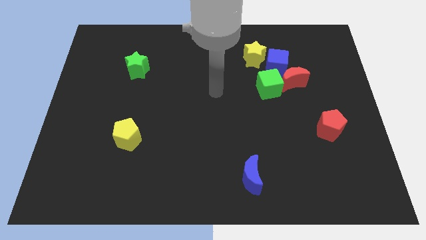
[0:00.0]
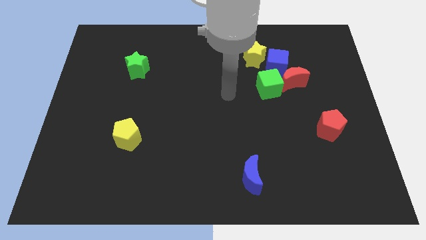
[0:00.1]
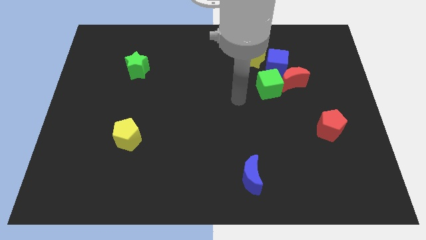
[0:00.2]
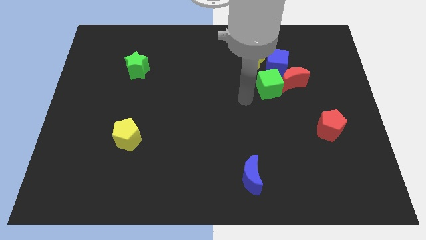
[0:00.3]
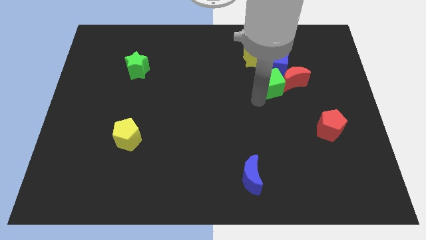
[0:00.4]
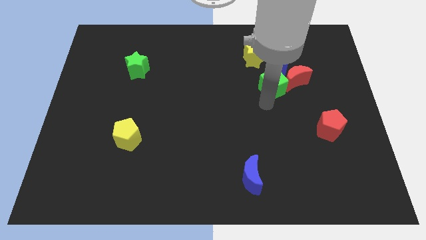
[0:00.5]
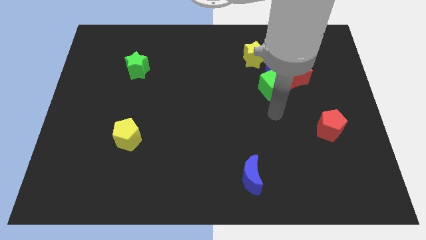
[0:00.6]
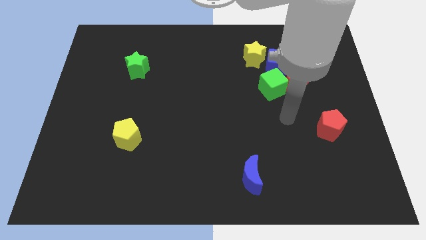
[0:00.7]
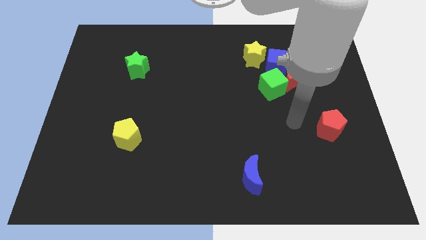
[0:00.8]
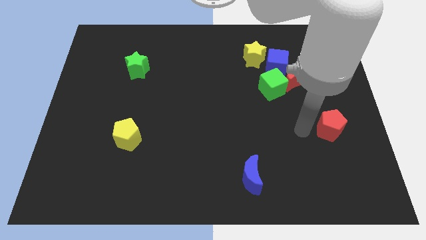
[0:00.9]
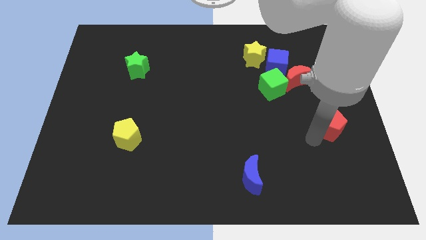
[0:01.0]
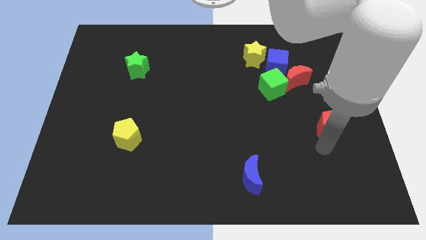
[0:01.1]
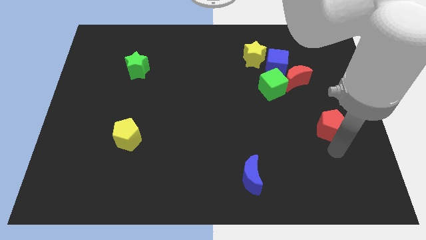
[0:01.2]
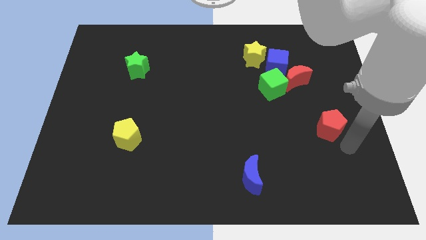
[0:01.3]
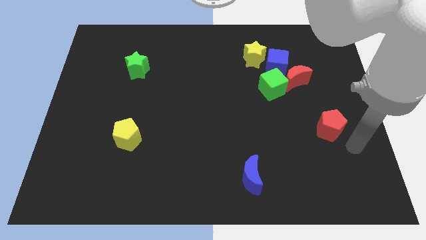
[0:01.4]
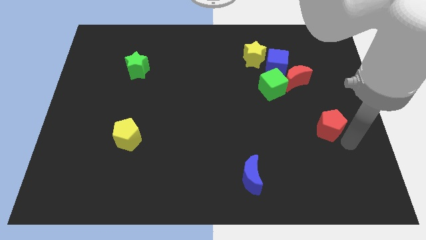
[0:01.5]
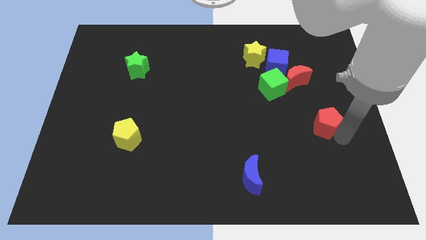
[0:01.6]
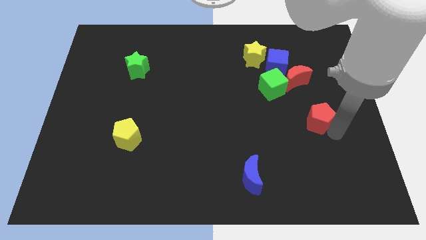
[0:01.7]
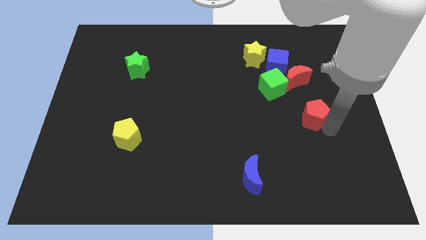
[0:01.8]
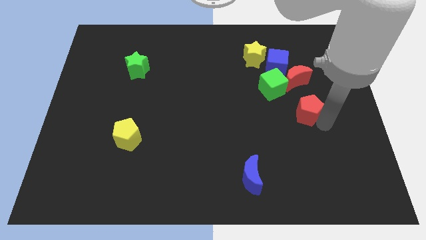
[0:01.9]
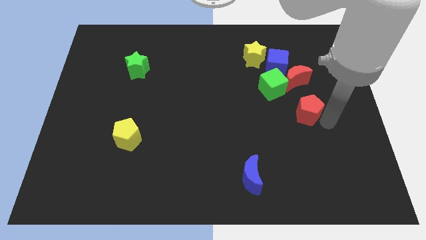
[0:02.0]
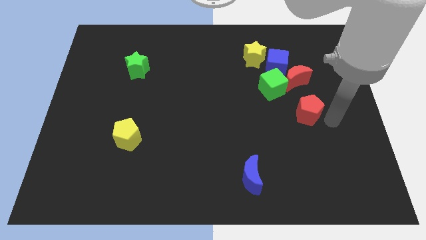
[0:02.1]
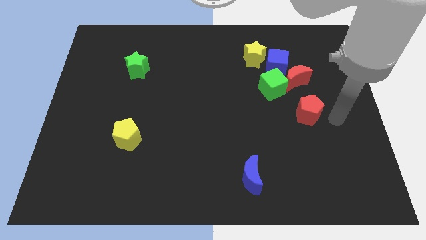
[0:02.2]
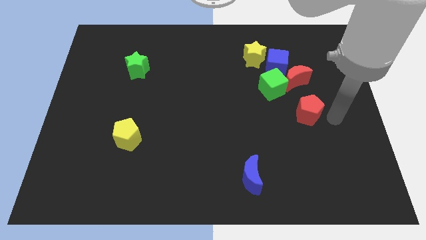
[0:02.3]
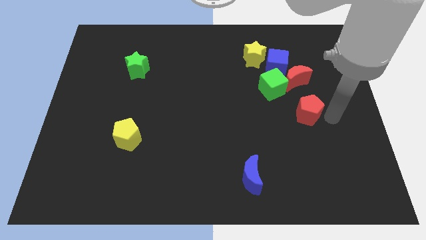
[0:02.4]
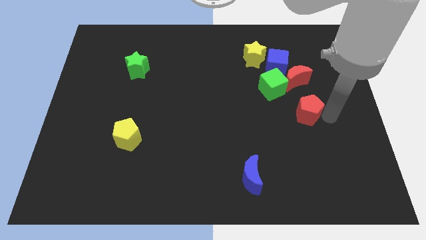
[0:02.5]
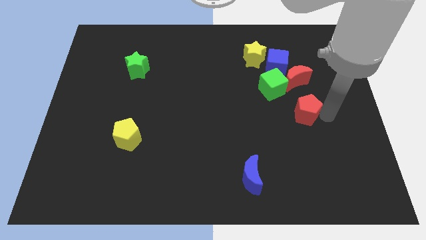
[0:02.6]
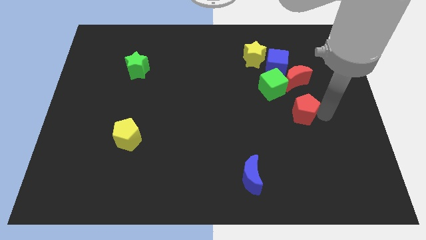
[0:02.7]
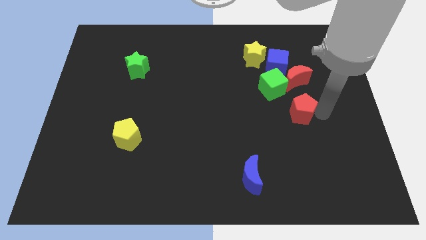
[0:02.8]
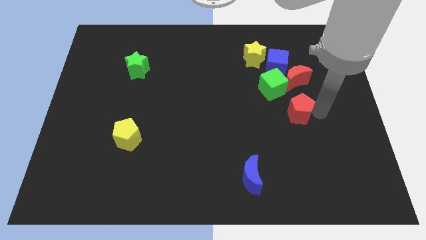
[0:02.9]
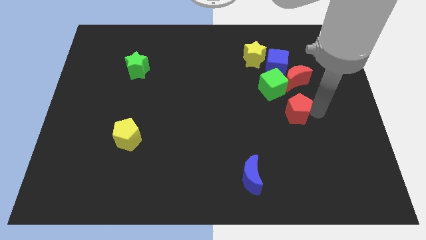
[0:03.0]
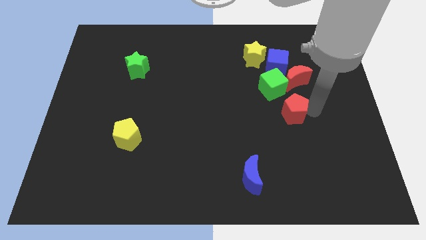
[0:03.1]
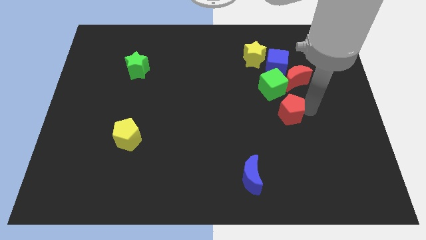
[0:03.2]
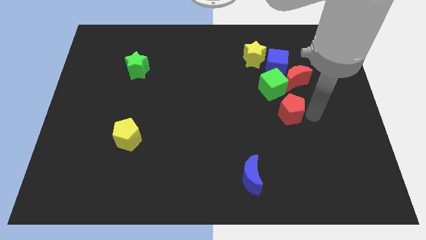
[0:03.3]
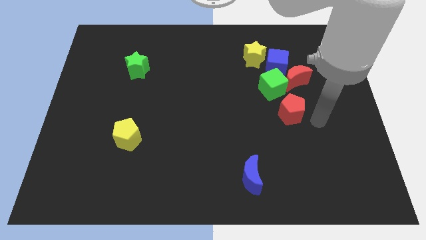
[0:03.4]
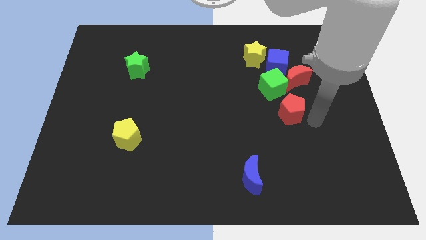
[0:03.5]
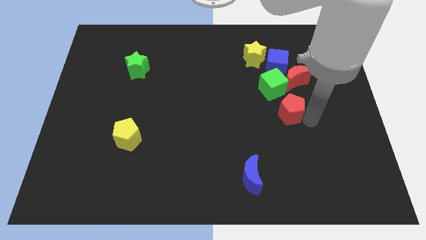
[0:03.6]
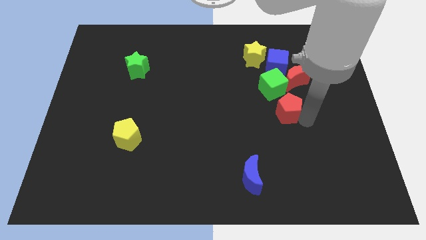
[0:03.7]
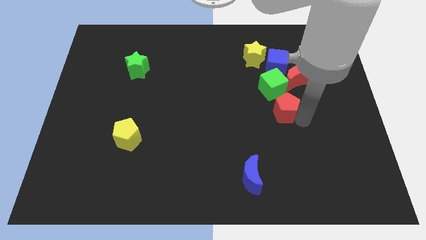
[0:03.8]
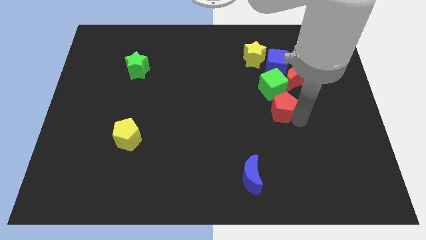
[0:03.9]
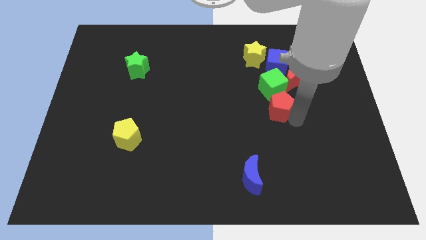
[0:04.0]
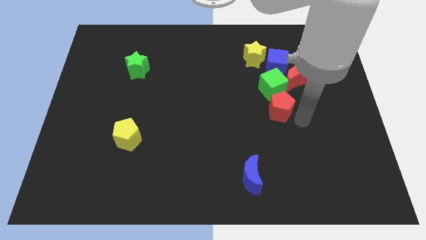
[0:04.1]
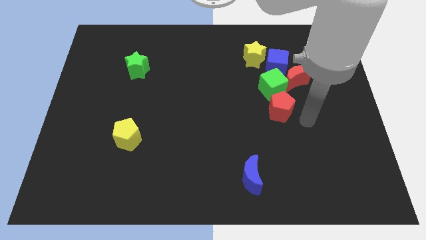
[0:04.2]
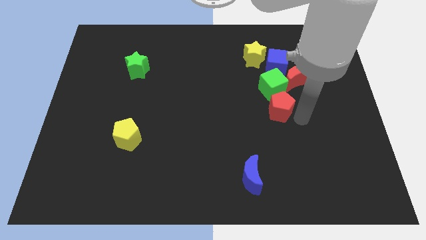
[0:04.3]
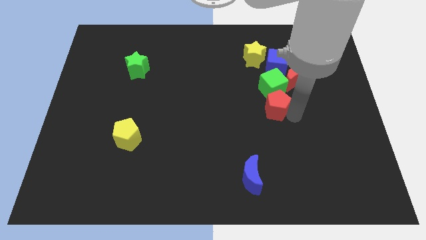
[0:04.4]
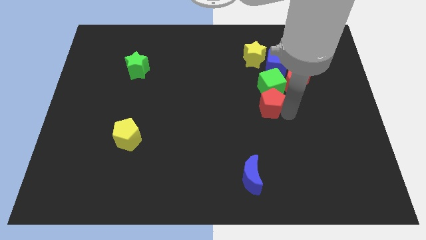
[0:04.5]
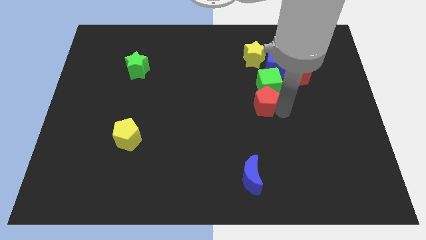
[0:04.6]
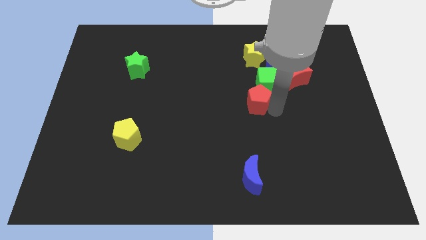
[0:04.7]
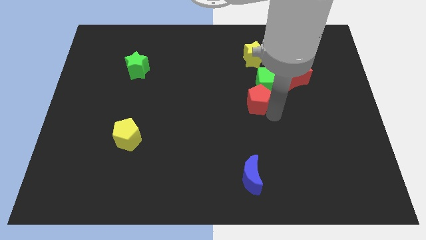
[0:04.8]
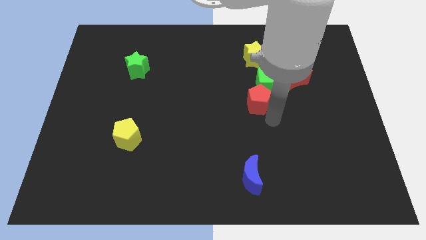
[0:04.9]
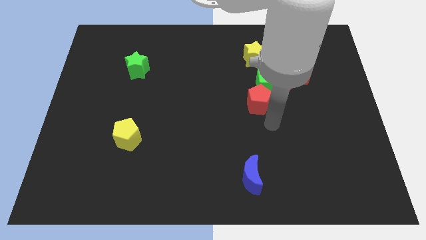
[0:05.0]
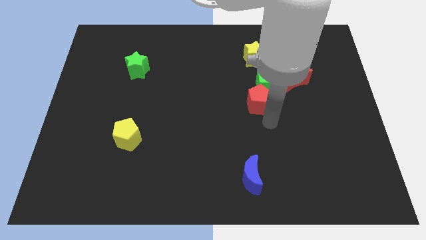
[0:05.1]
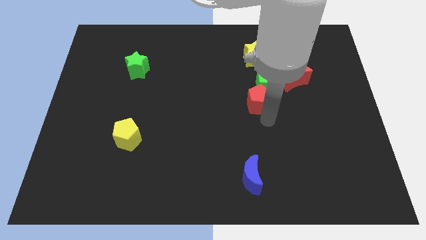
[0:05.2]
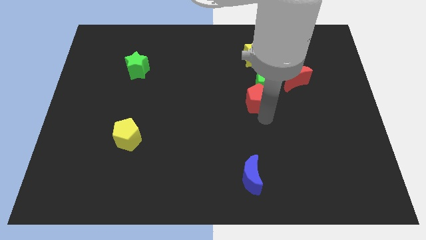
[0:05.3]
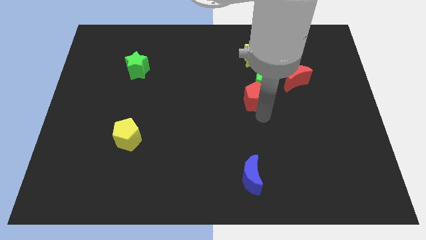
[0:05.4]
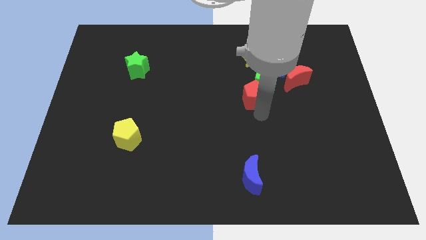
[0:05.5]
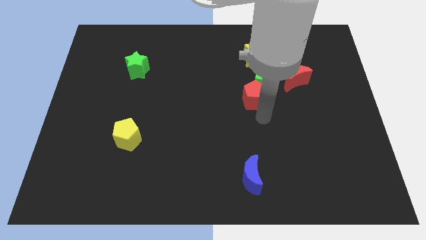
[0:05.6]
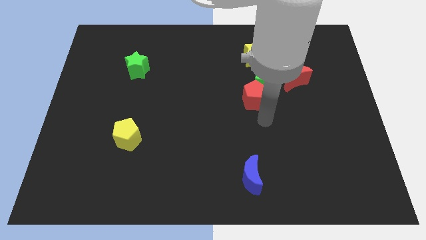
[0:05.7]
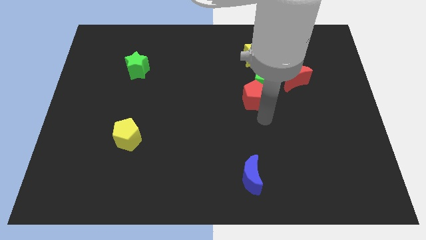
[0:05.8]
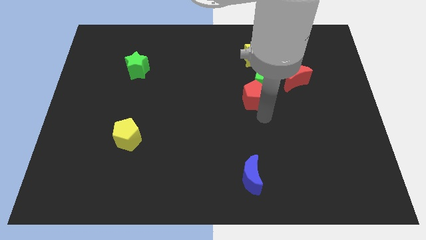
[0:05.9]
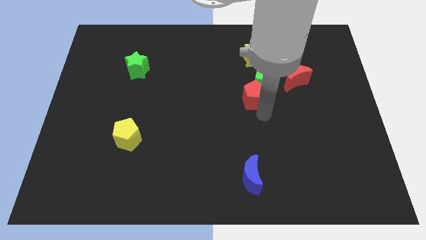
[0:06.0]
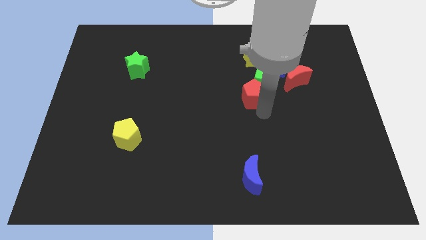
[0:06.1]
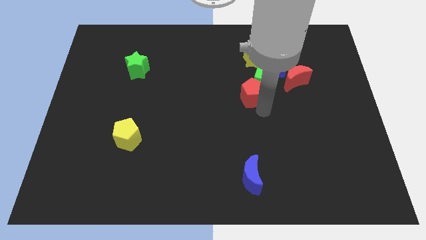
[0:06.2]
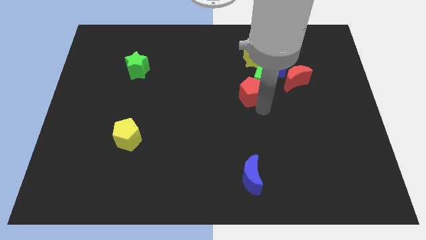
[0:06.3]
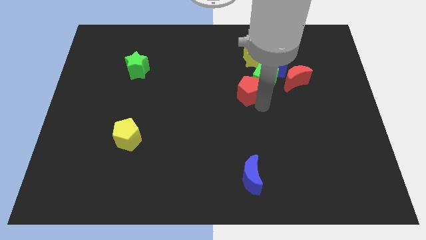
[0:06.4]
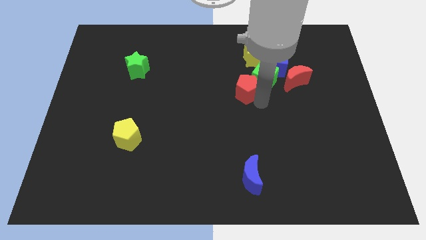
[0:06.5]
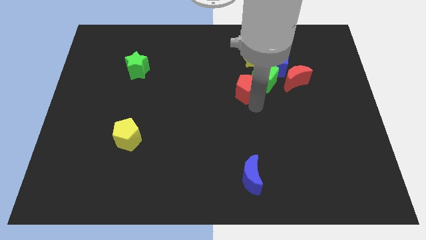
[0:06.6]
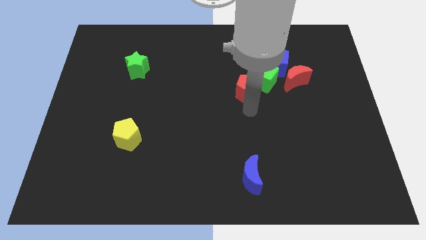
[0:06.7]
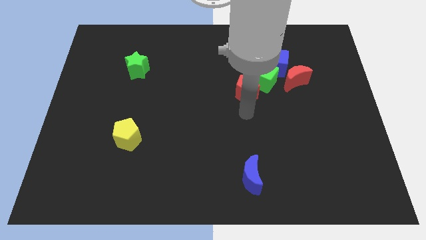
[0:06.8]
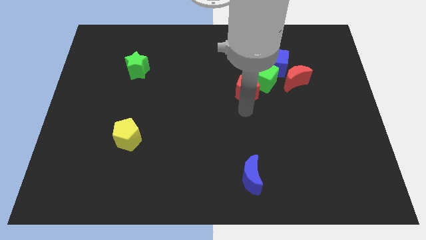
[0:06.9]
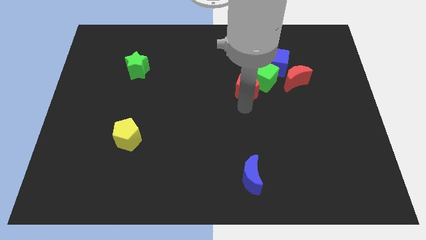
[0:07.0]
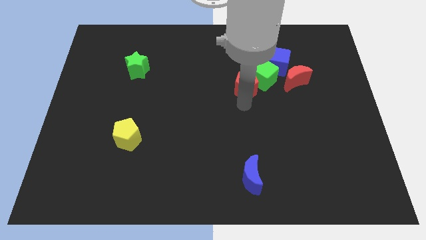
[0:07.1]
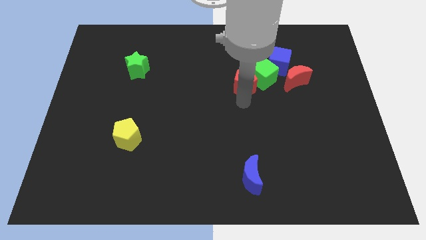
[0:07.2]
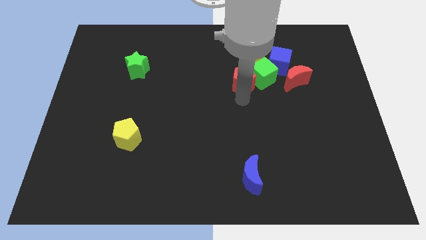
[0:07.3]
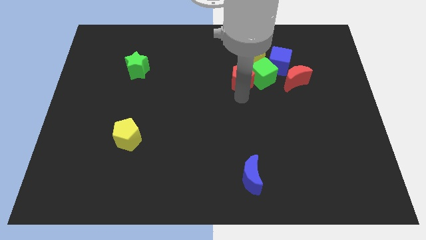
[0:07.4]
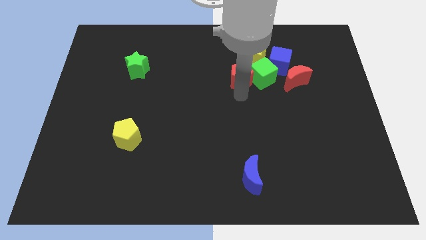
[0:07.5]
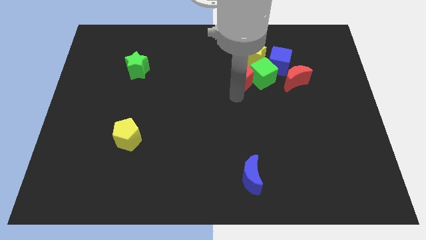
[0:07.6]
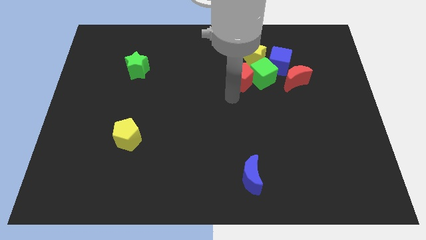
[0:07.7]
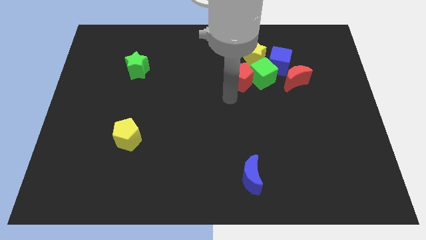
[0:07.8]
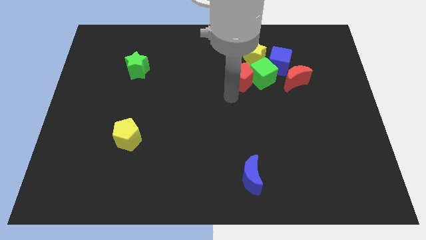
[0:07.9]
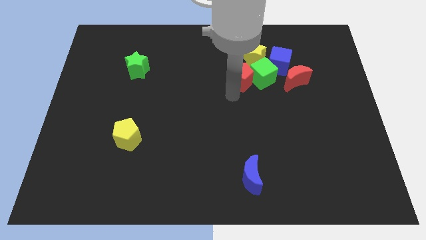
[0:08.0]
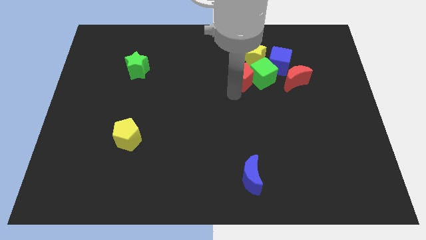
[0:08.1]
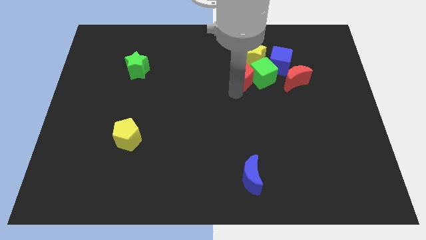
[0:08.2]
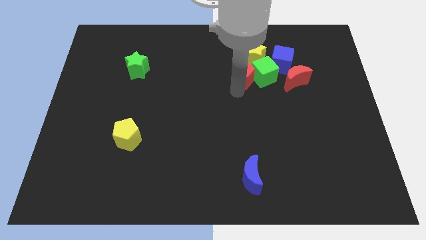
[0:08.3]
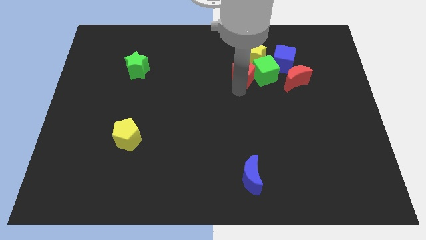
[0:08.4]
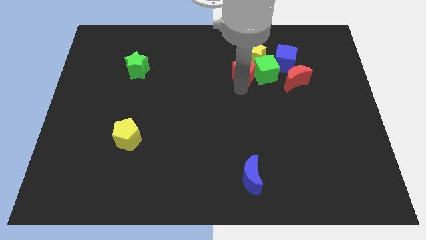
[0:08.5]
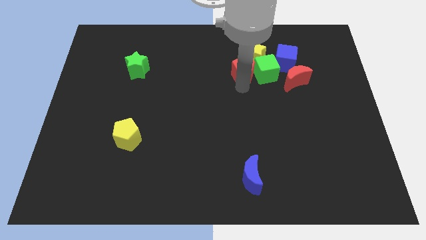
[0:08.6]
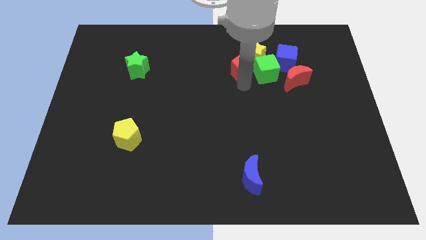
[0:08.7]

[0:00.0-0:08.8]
slide the red pentagon towards the yellow star
